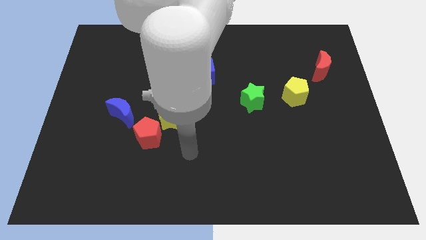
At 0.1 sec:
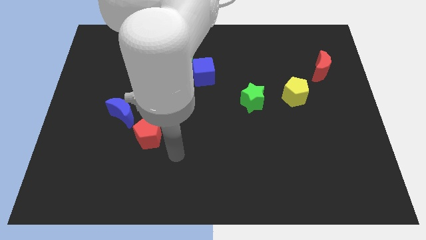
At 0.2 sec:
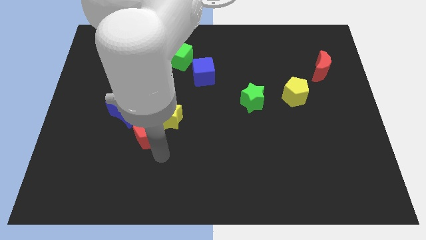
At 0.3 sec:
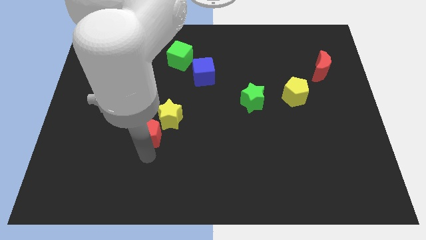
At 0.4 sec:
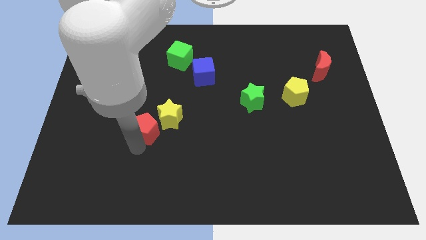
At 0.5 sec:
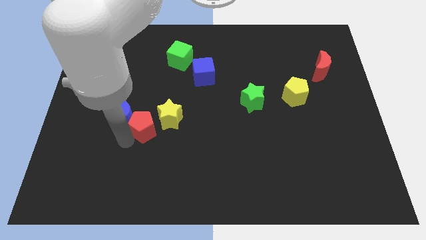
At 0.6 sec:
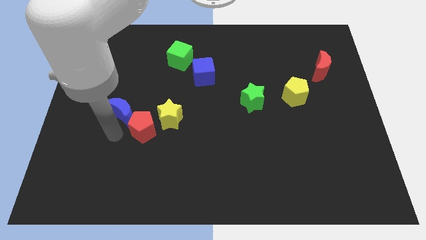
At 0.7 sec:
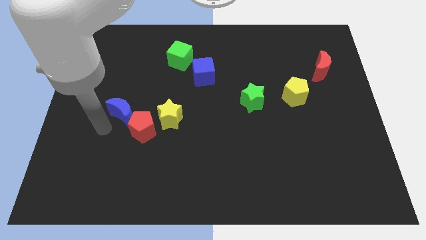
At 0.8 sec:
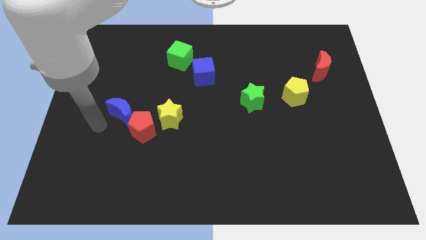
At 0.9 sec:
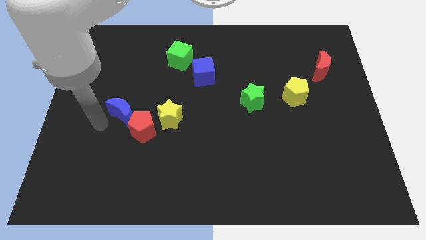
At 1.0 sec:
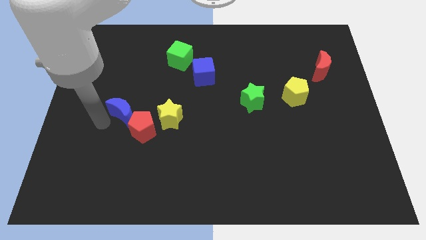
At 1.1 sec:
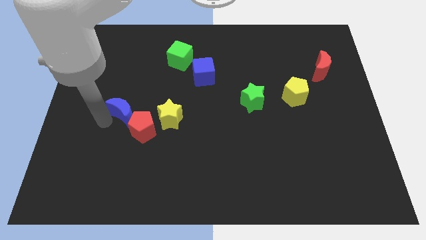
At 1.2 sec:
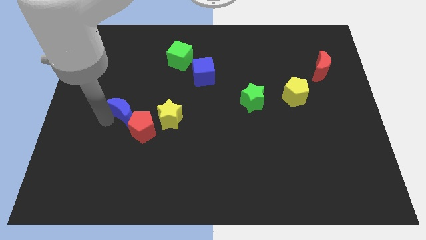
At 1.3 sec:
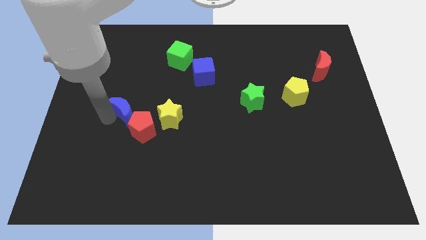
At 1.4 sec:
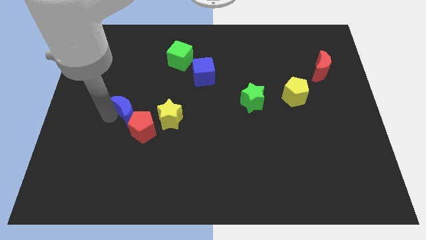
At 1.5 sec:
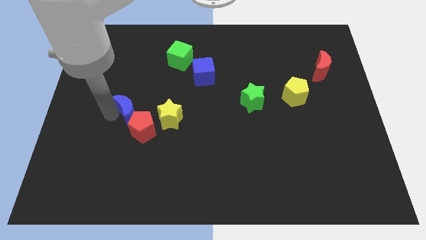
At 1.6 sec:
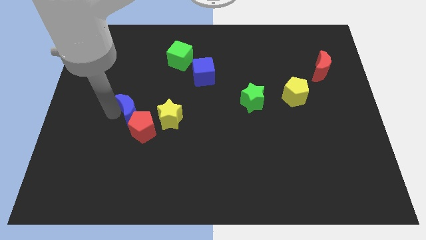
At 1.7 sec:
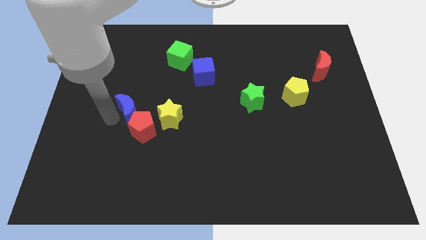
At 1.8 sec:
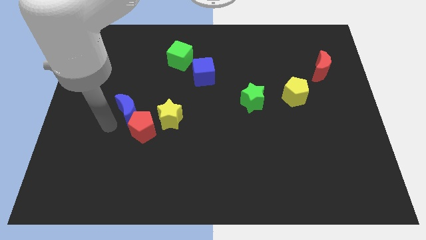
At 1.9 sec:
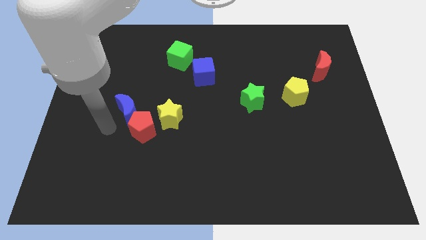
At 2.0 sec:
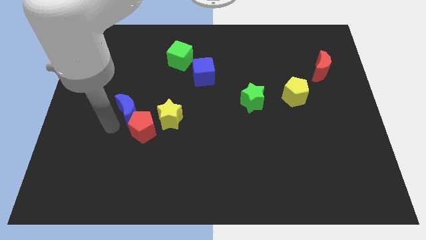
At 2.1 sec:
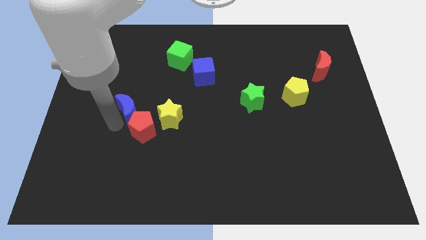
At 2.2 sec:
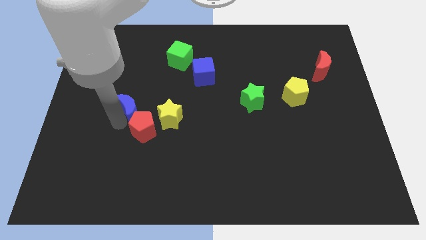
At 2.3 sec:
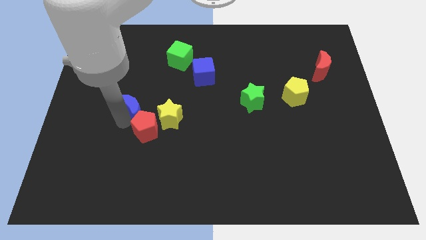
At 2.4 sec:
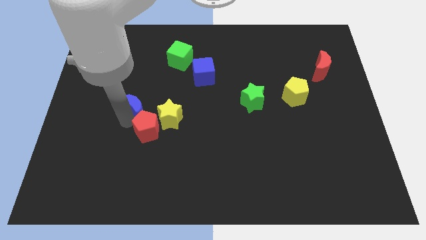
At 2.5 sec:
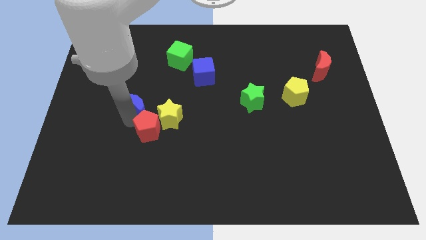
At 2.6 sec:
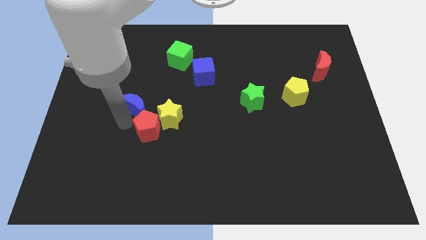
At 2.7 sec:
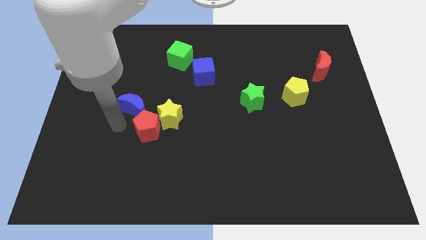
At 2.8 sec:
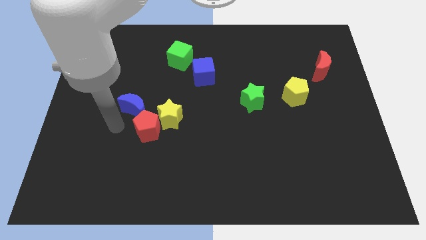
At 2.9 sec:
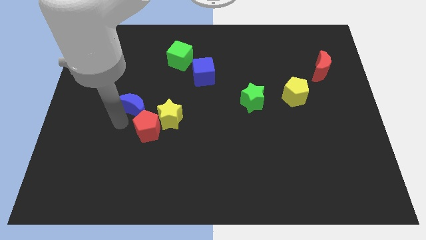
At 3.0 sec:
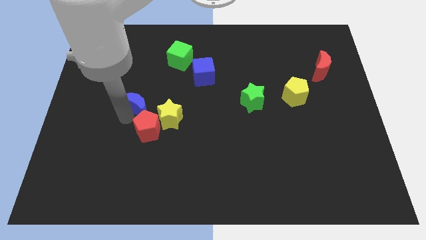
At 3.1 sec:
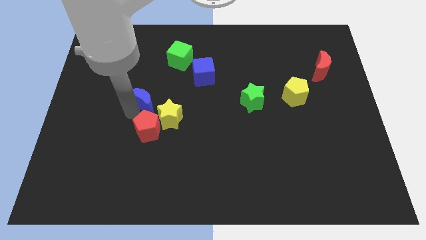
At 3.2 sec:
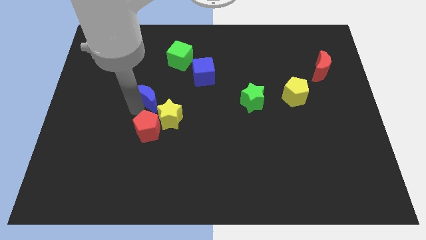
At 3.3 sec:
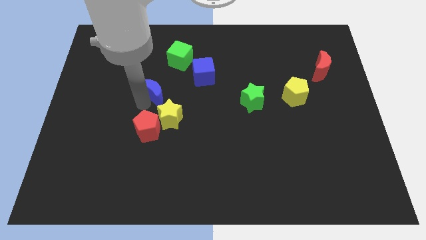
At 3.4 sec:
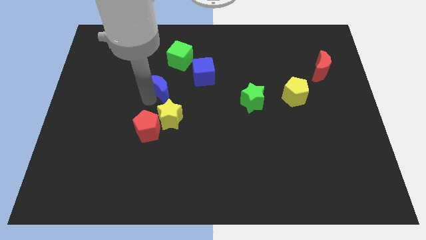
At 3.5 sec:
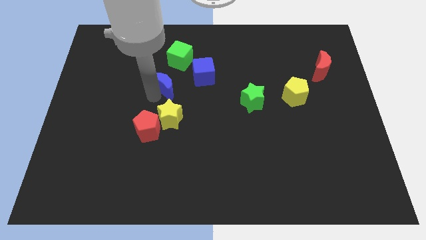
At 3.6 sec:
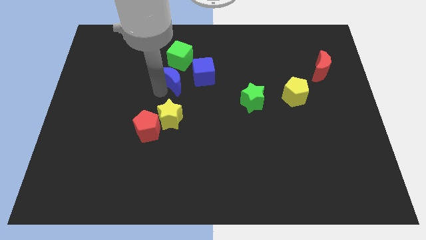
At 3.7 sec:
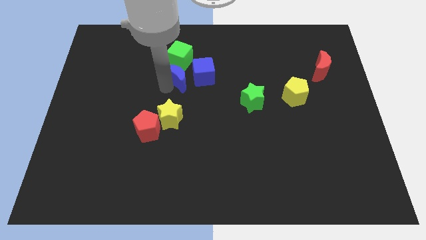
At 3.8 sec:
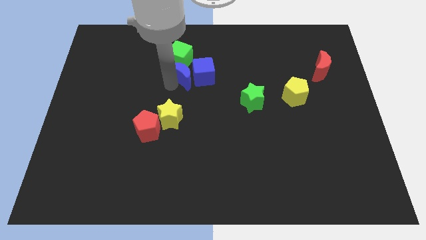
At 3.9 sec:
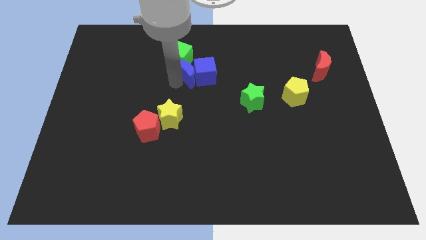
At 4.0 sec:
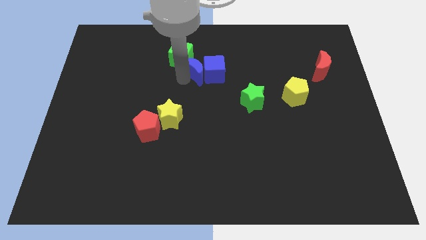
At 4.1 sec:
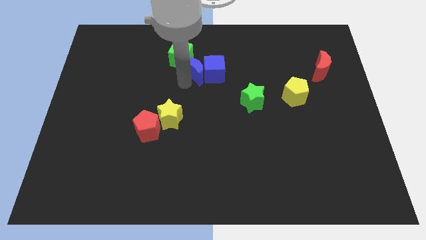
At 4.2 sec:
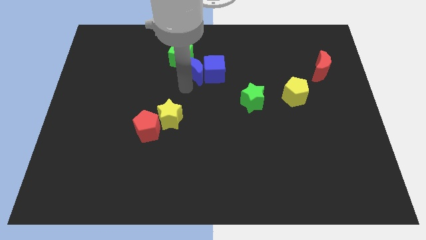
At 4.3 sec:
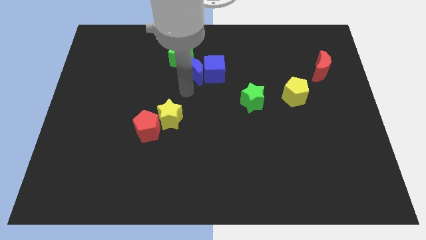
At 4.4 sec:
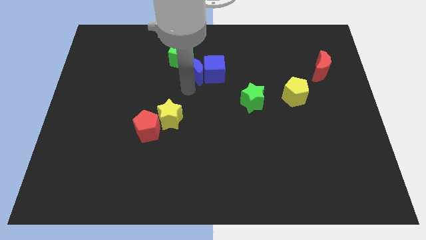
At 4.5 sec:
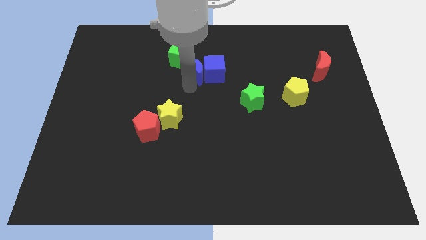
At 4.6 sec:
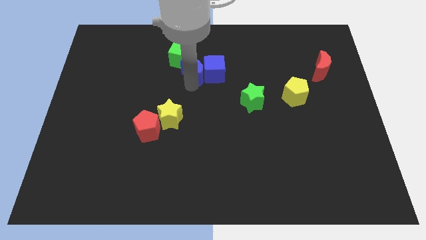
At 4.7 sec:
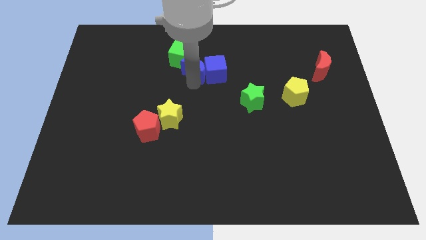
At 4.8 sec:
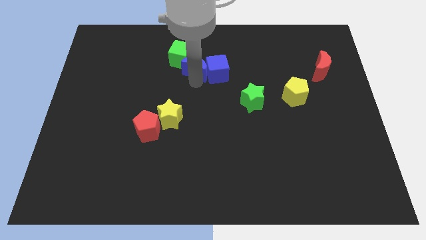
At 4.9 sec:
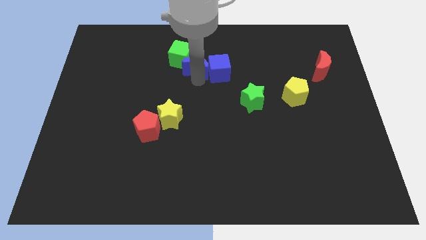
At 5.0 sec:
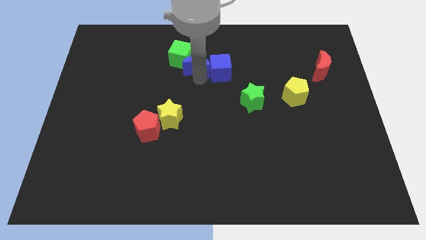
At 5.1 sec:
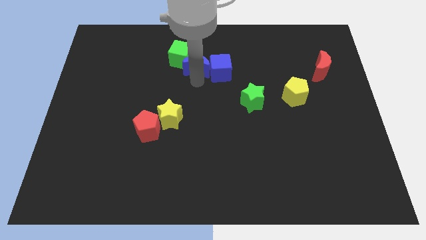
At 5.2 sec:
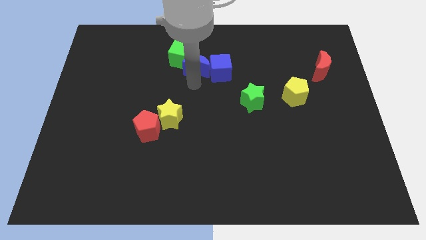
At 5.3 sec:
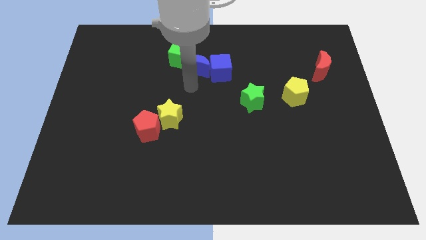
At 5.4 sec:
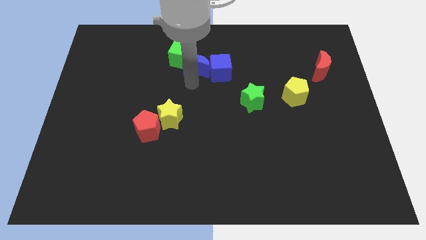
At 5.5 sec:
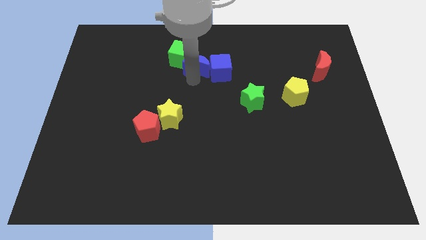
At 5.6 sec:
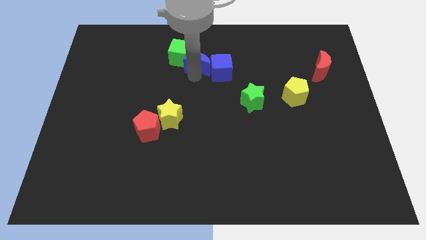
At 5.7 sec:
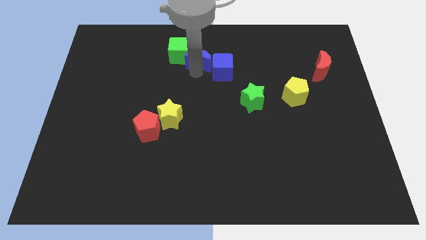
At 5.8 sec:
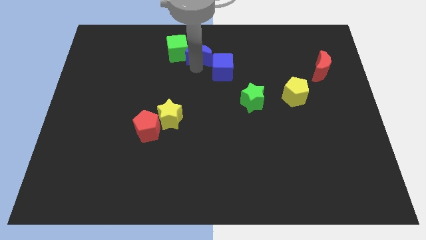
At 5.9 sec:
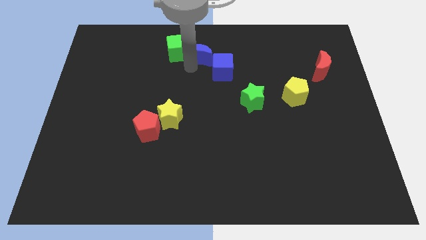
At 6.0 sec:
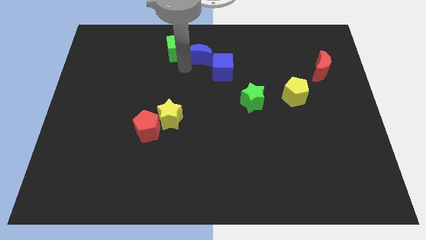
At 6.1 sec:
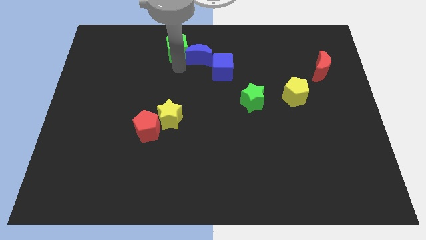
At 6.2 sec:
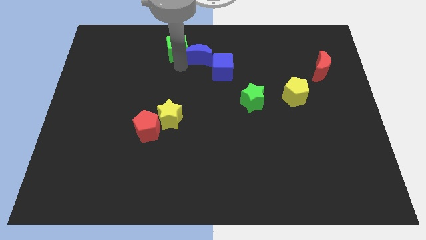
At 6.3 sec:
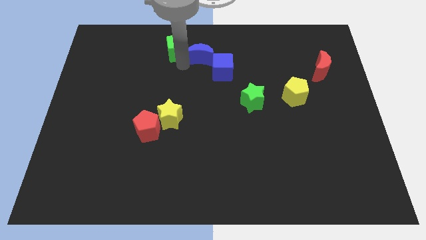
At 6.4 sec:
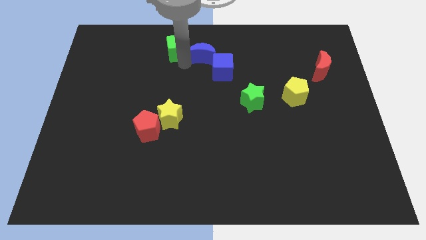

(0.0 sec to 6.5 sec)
push the blue moon to the top side
